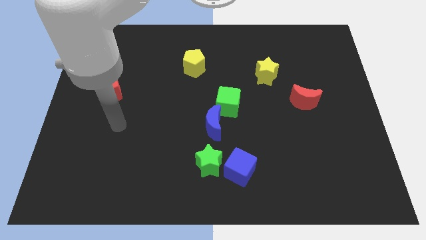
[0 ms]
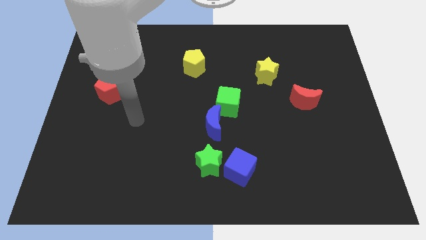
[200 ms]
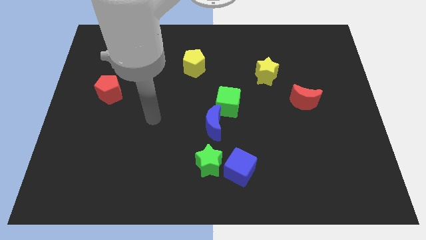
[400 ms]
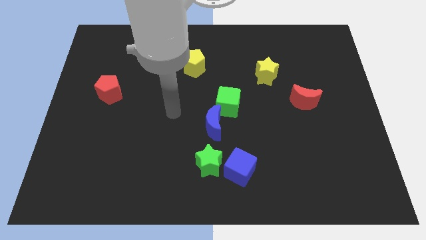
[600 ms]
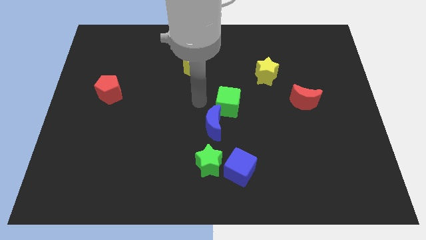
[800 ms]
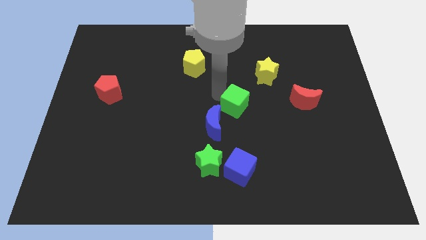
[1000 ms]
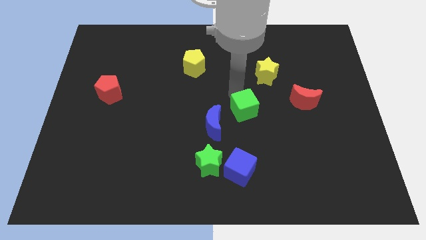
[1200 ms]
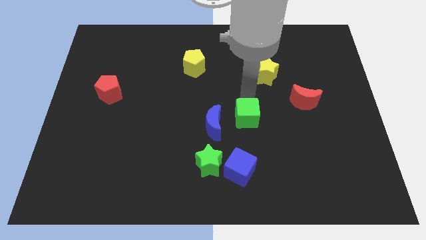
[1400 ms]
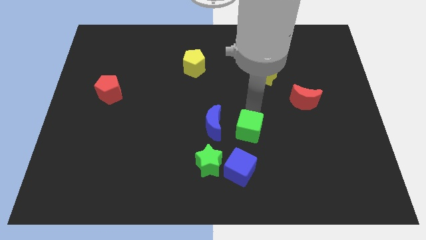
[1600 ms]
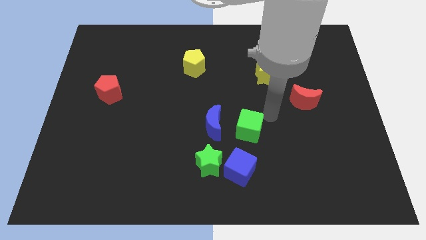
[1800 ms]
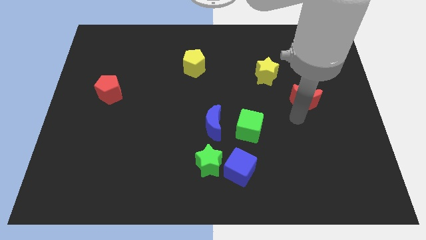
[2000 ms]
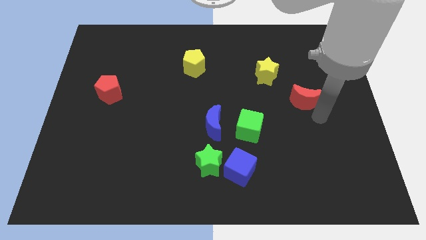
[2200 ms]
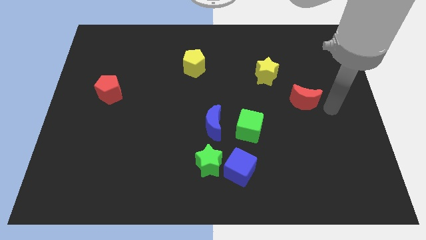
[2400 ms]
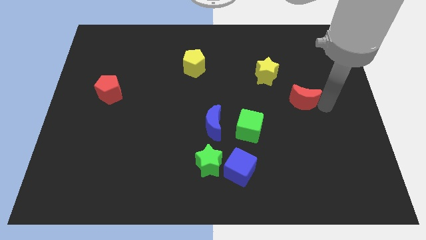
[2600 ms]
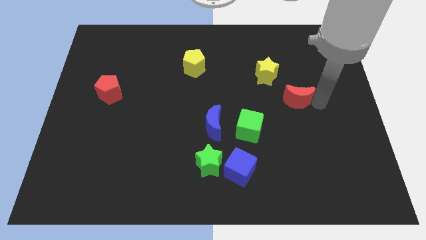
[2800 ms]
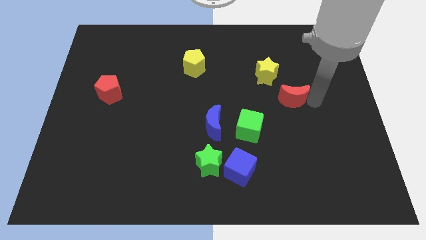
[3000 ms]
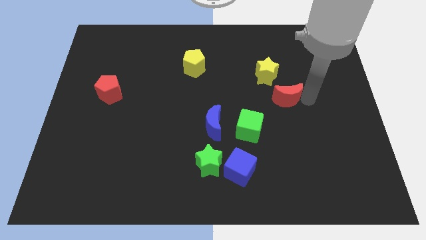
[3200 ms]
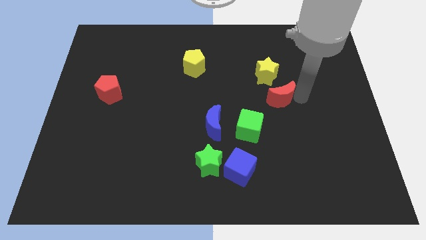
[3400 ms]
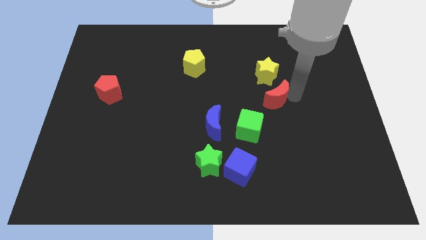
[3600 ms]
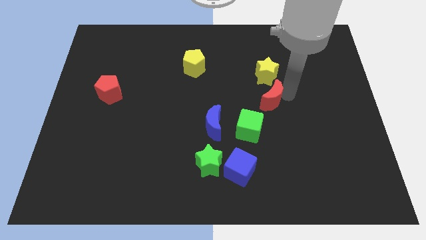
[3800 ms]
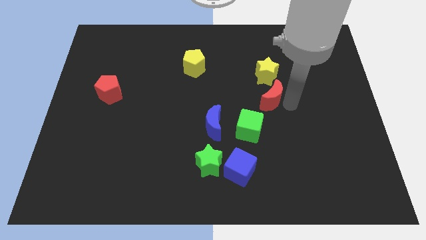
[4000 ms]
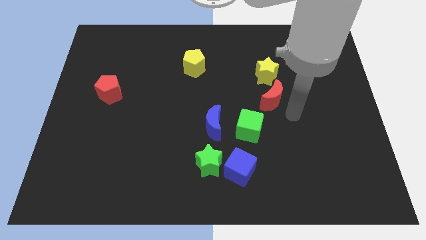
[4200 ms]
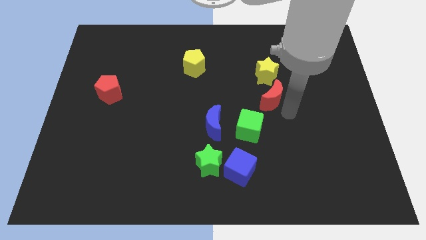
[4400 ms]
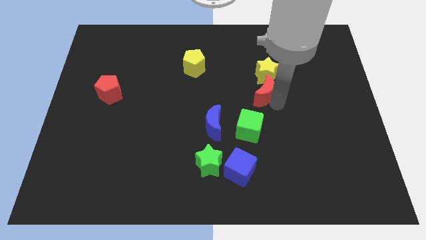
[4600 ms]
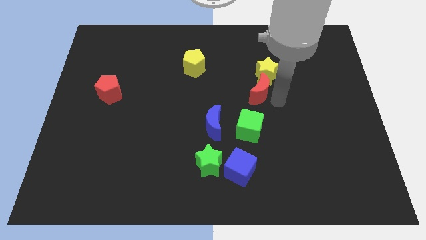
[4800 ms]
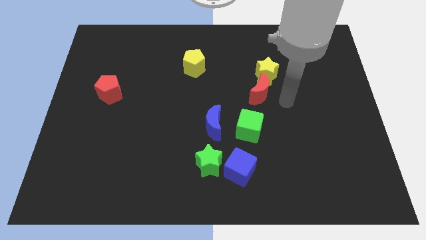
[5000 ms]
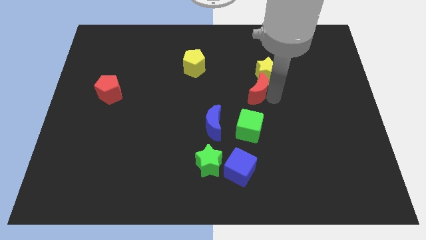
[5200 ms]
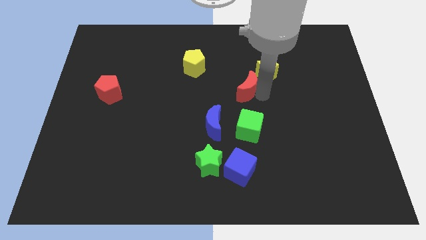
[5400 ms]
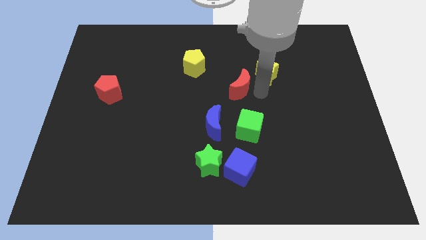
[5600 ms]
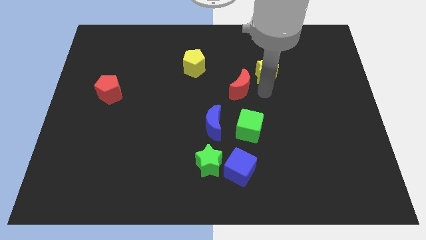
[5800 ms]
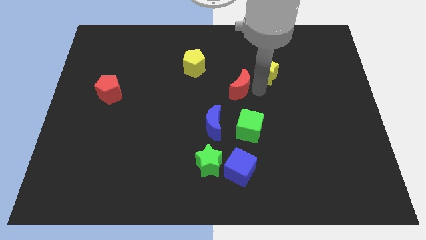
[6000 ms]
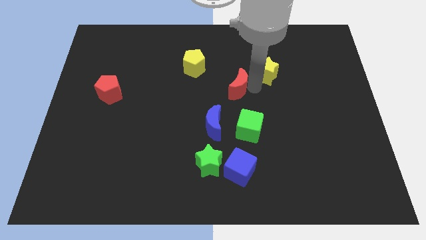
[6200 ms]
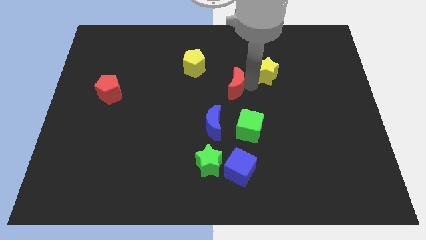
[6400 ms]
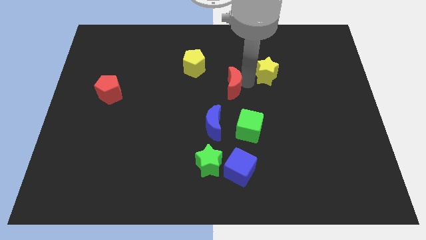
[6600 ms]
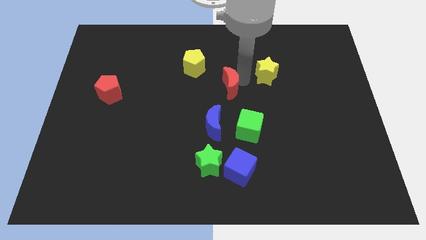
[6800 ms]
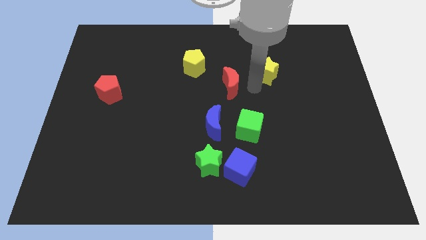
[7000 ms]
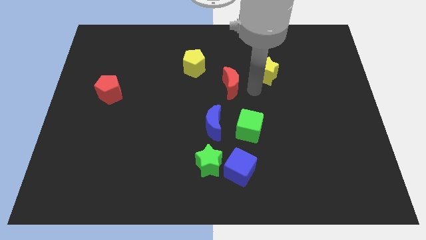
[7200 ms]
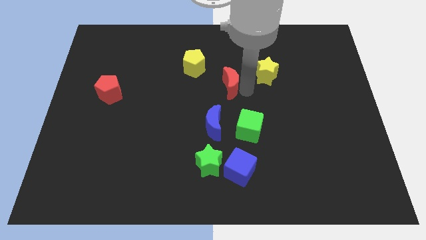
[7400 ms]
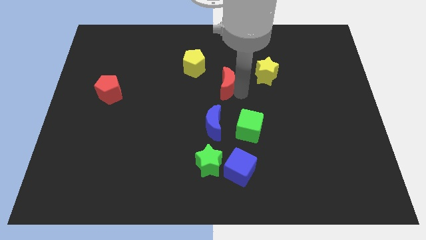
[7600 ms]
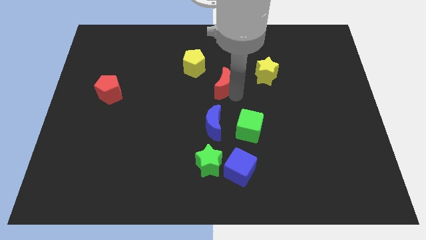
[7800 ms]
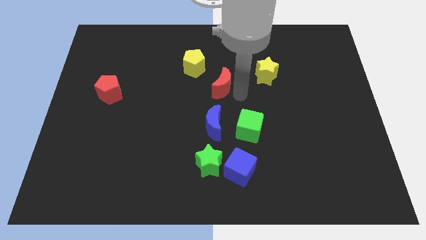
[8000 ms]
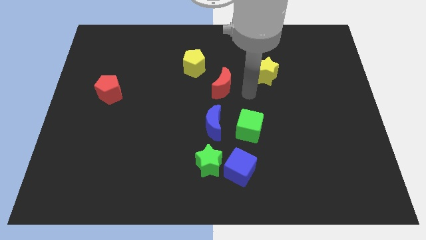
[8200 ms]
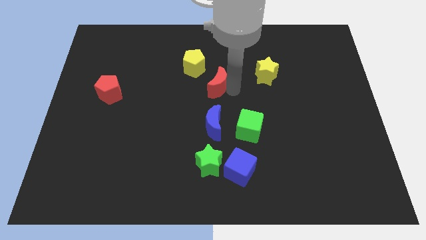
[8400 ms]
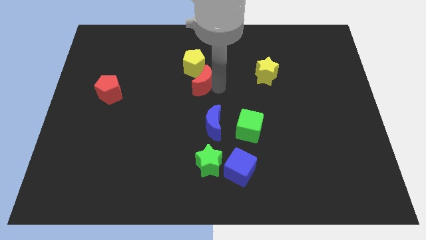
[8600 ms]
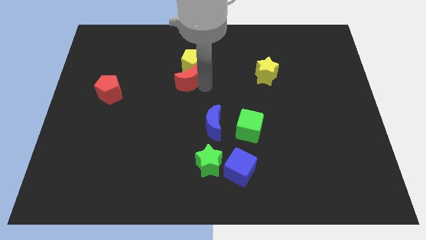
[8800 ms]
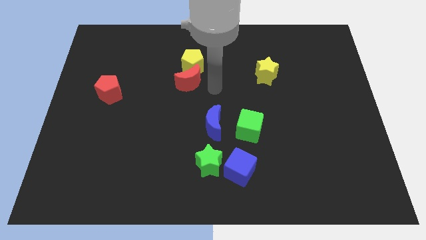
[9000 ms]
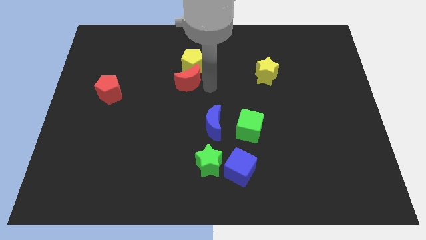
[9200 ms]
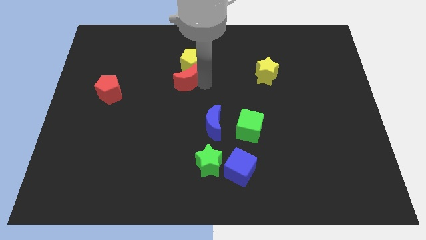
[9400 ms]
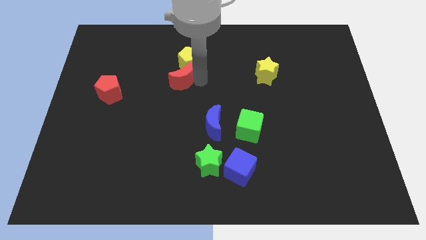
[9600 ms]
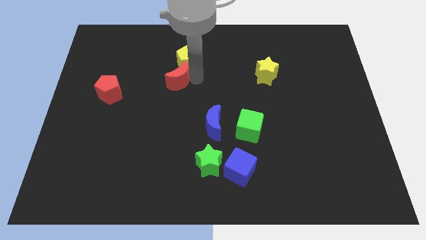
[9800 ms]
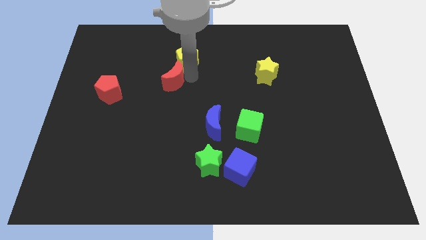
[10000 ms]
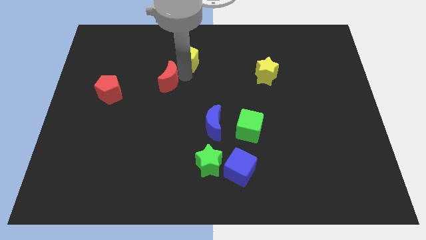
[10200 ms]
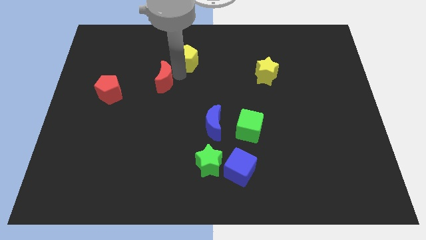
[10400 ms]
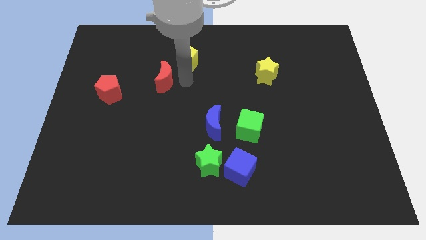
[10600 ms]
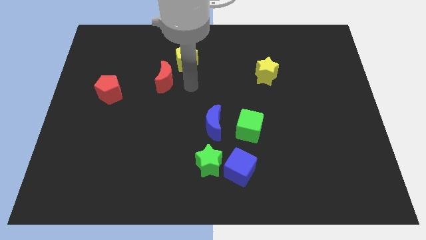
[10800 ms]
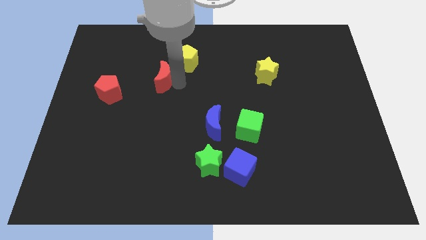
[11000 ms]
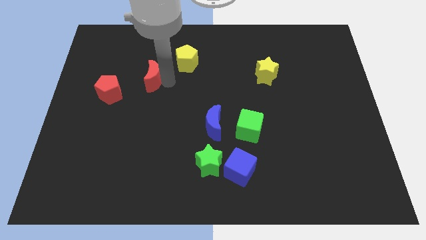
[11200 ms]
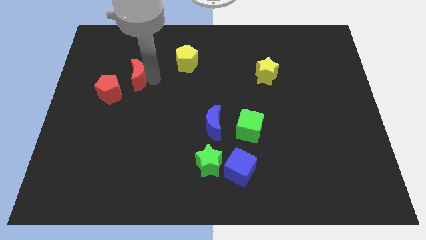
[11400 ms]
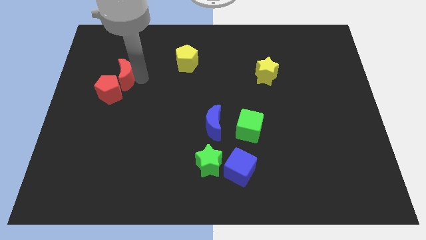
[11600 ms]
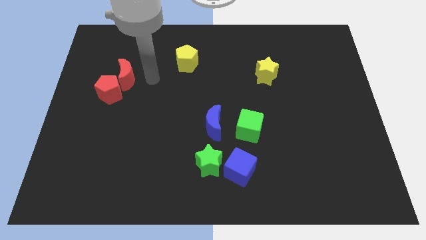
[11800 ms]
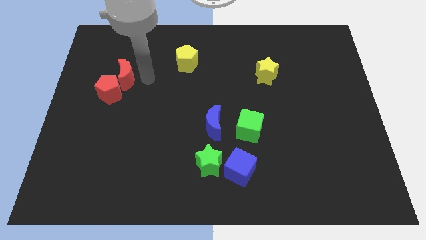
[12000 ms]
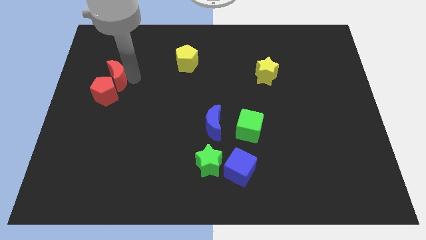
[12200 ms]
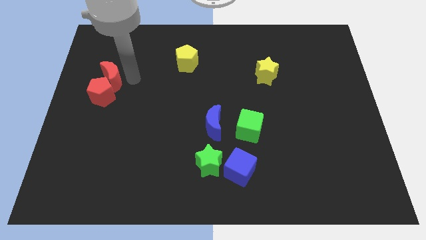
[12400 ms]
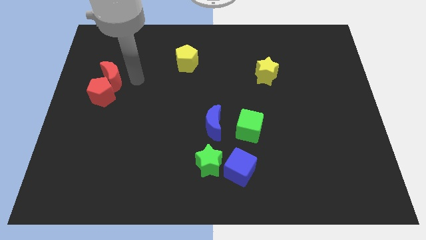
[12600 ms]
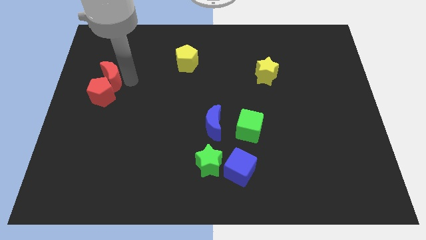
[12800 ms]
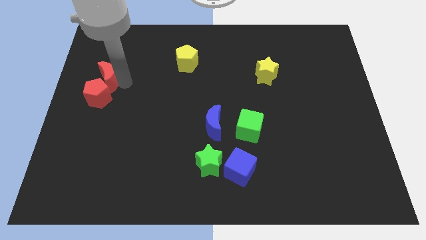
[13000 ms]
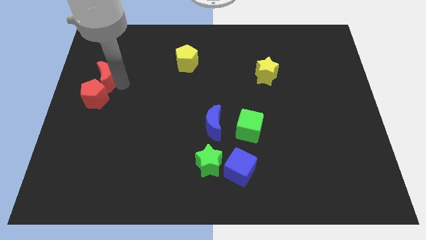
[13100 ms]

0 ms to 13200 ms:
slide the red moon to the center left

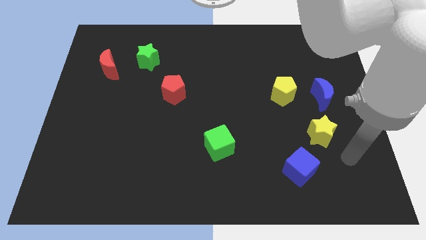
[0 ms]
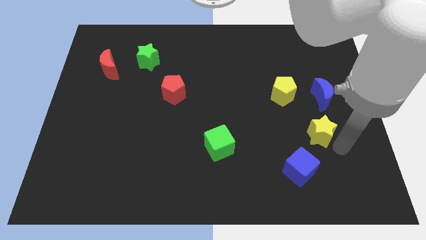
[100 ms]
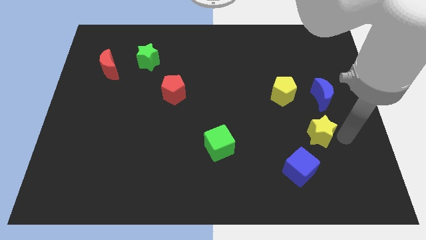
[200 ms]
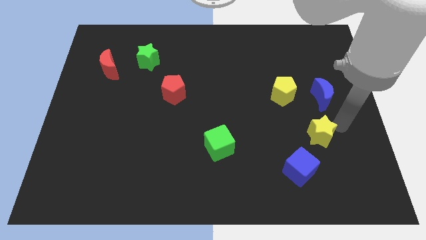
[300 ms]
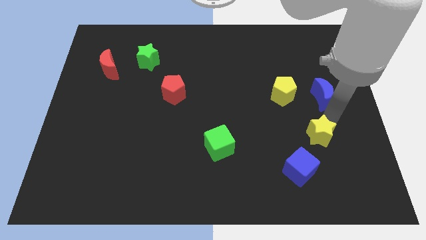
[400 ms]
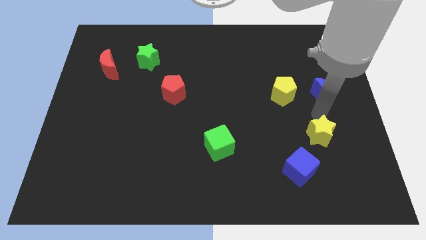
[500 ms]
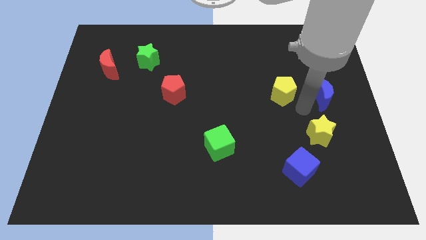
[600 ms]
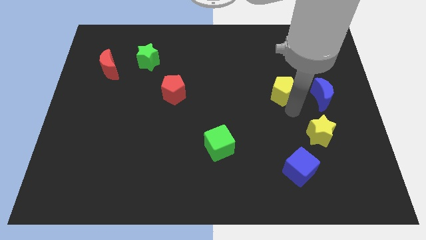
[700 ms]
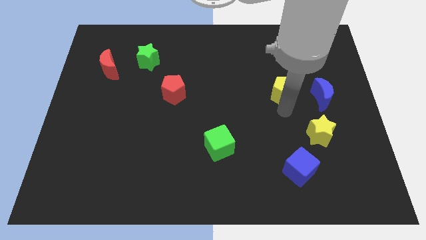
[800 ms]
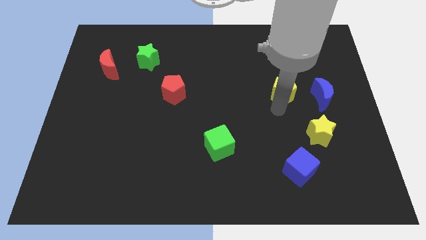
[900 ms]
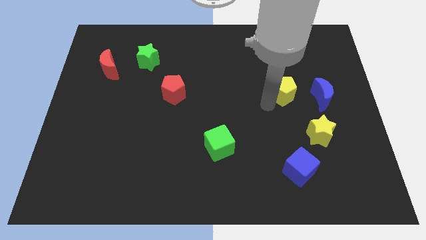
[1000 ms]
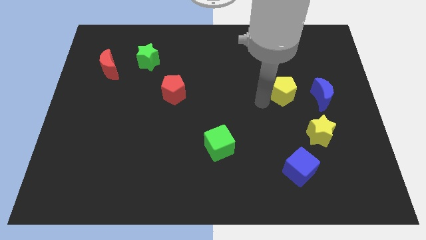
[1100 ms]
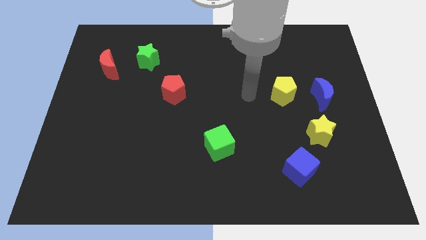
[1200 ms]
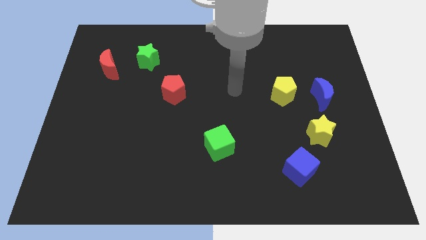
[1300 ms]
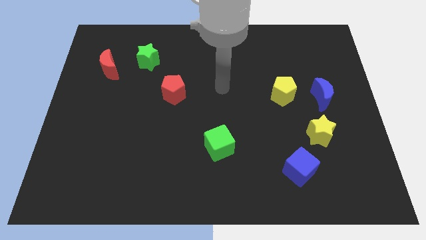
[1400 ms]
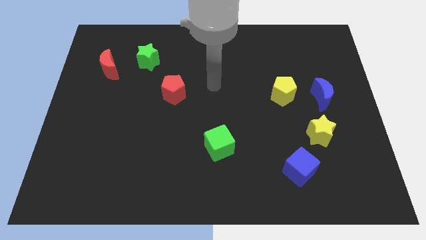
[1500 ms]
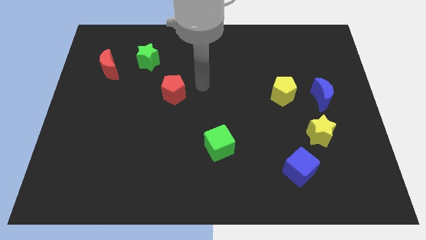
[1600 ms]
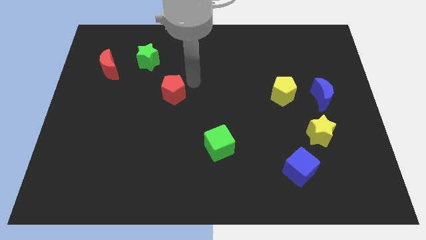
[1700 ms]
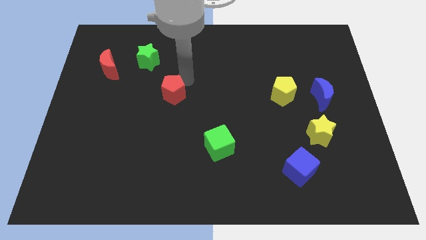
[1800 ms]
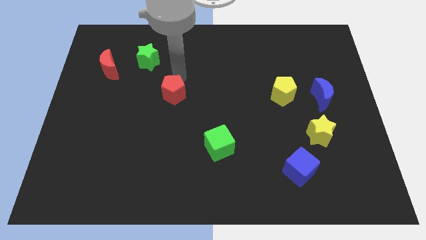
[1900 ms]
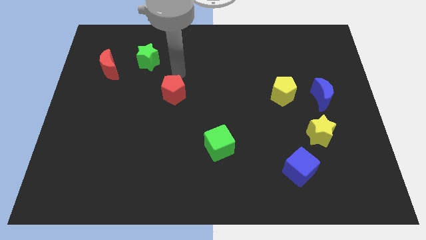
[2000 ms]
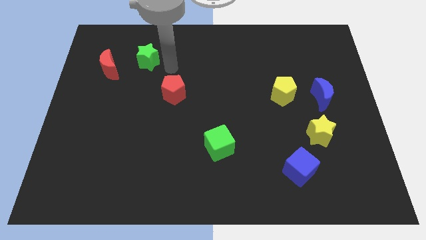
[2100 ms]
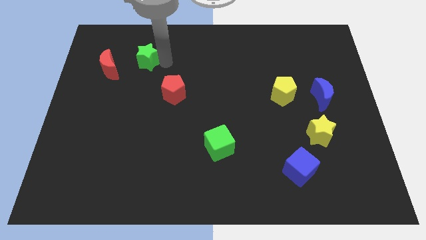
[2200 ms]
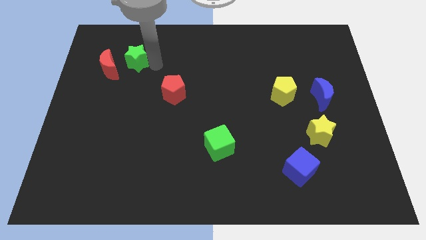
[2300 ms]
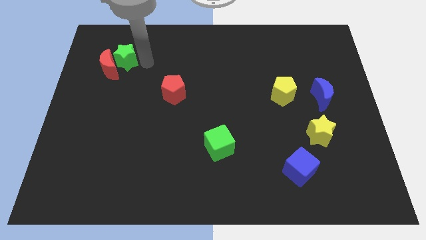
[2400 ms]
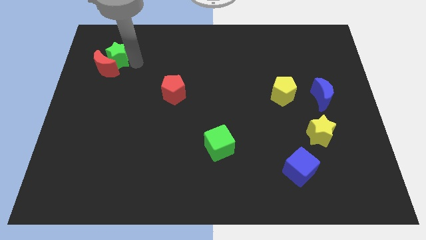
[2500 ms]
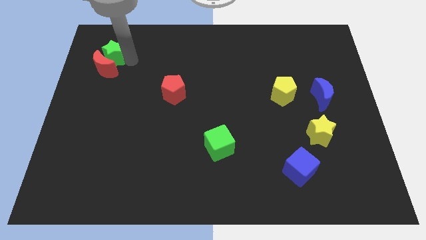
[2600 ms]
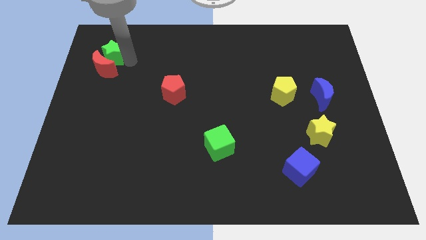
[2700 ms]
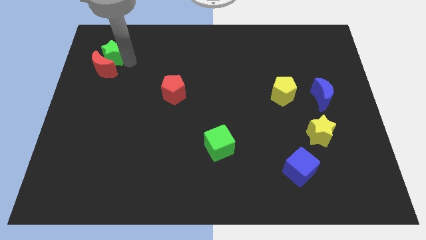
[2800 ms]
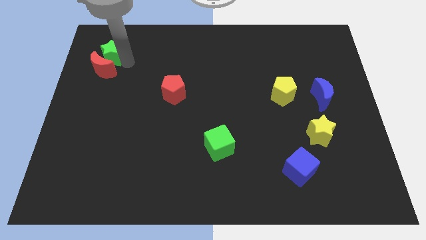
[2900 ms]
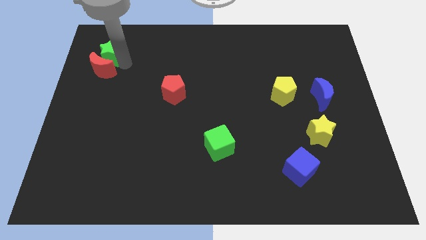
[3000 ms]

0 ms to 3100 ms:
slide the red moon to the left side of the board
